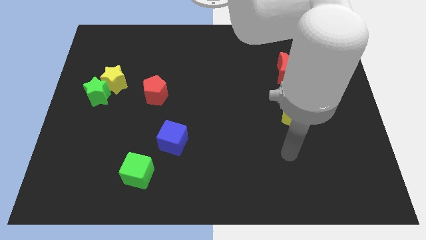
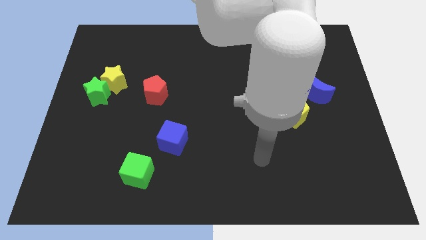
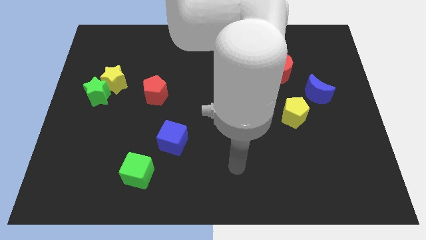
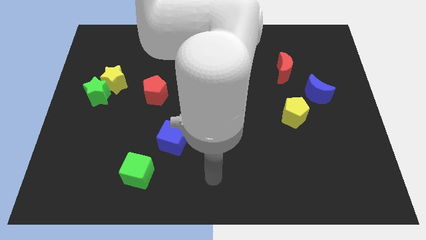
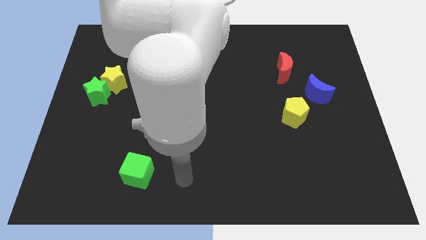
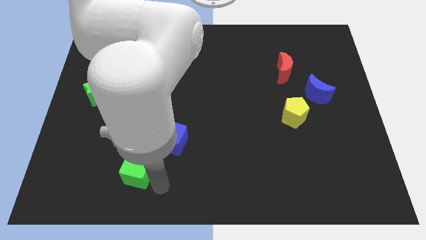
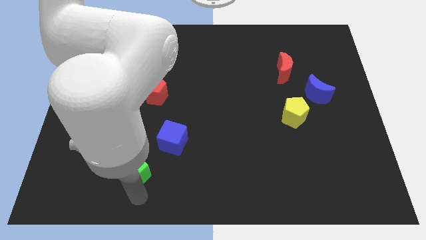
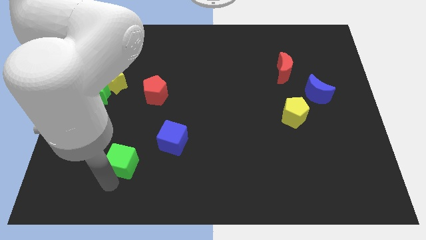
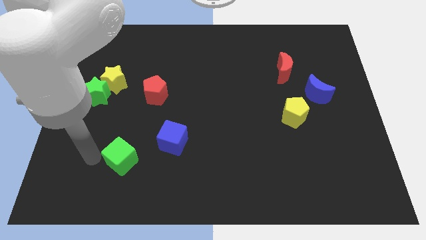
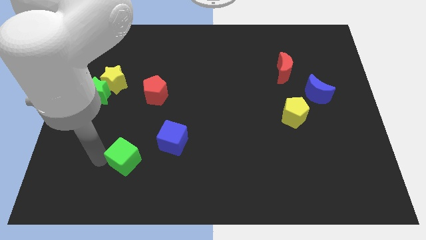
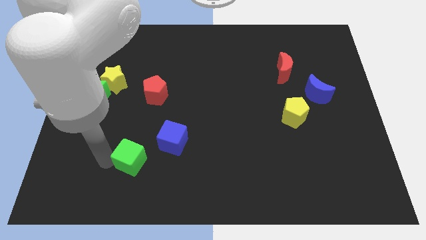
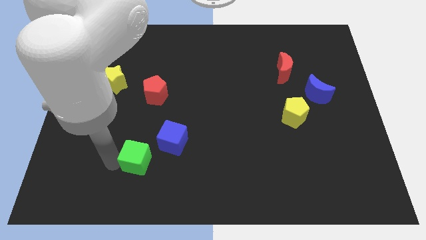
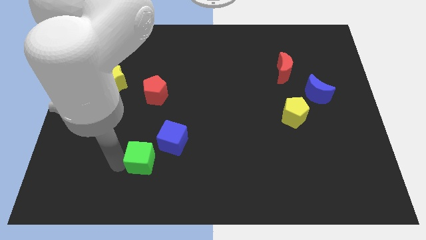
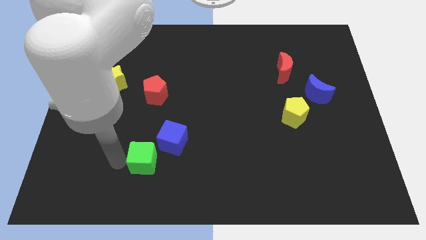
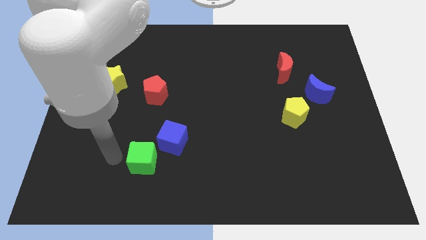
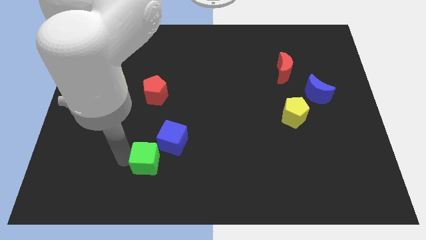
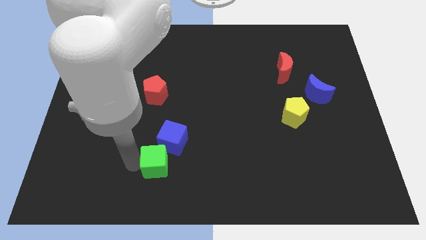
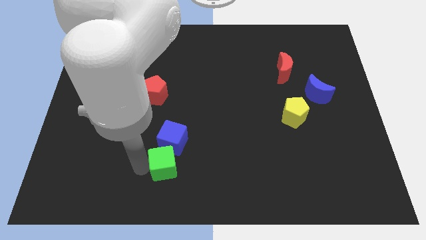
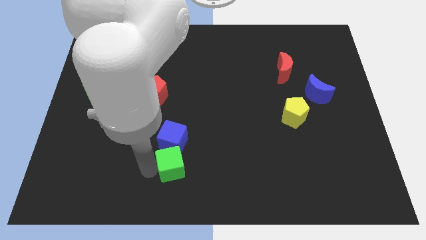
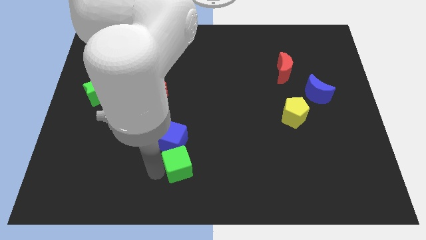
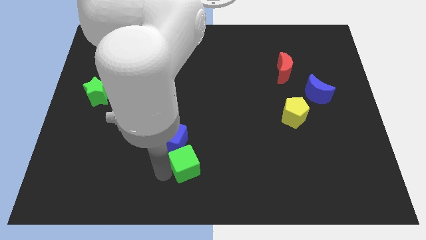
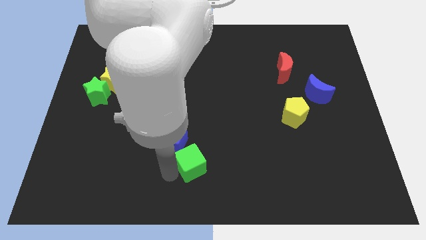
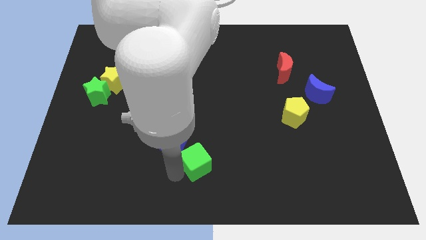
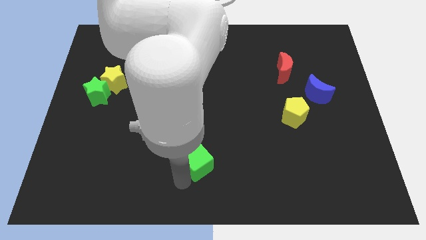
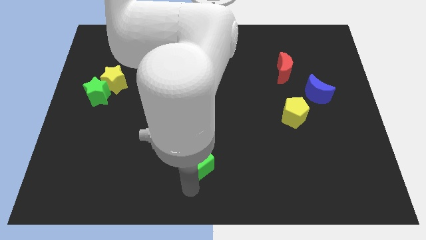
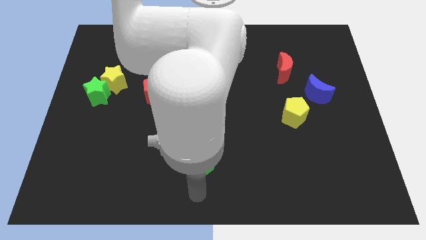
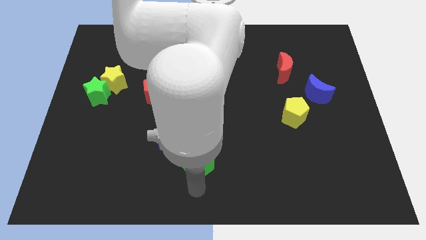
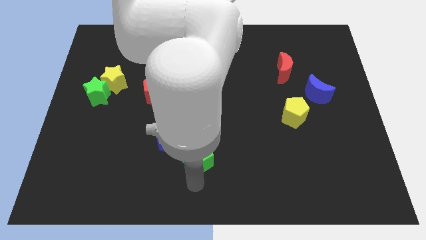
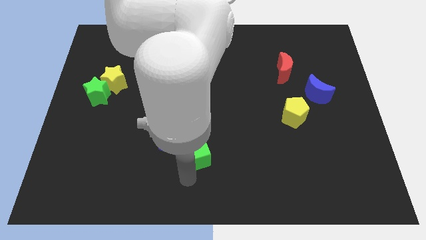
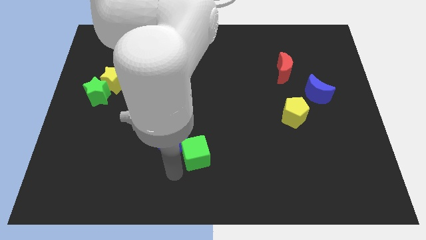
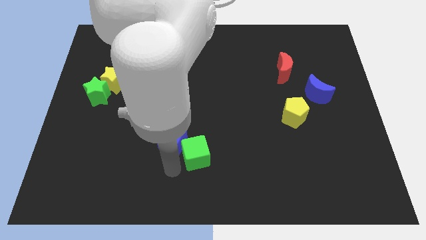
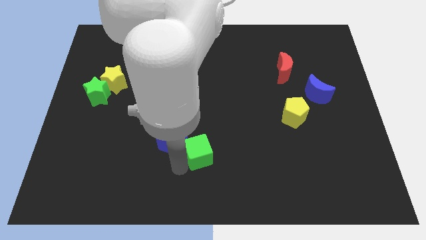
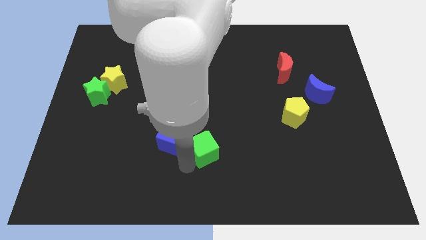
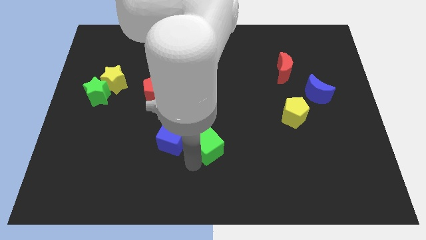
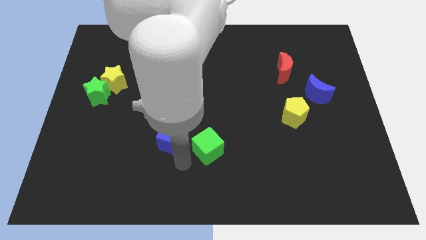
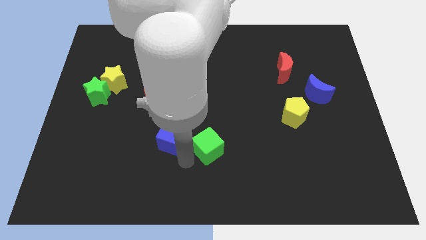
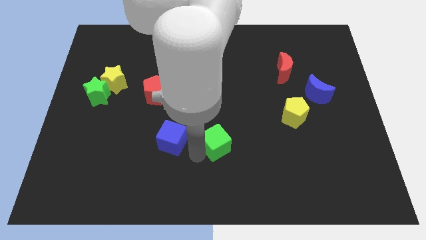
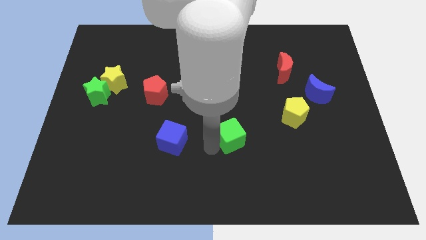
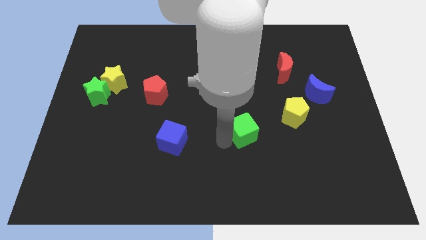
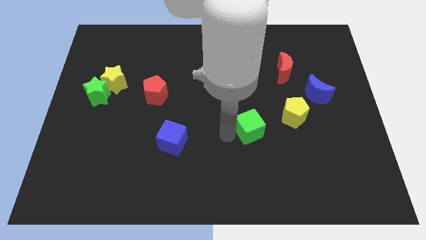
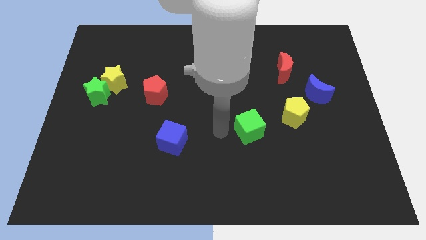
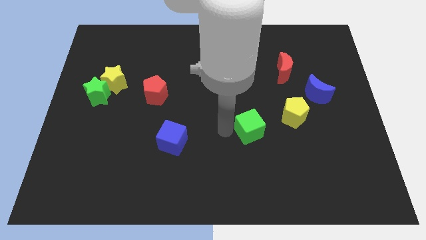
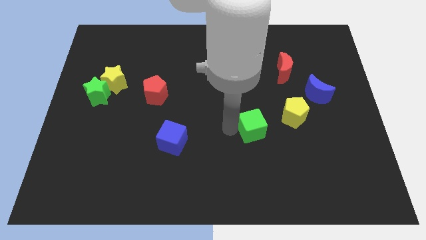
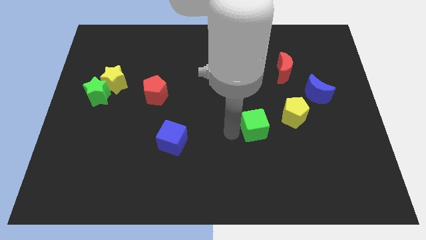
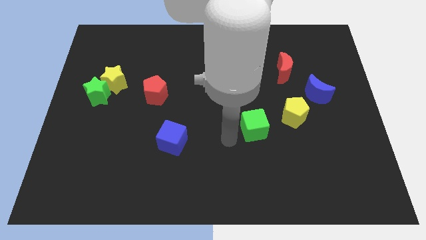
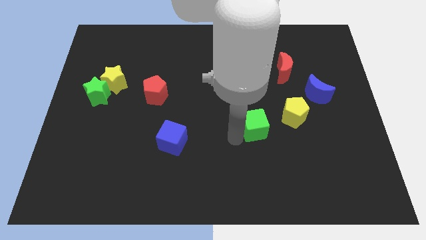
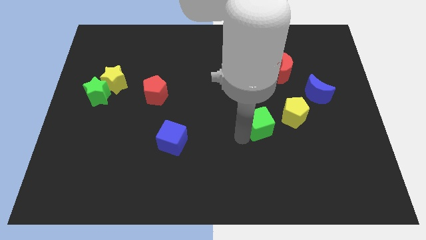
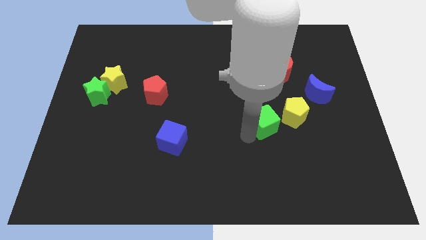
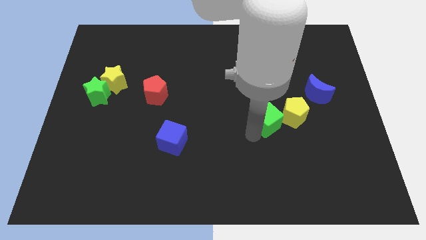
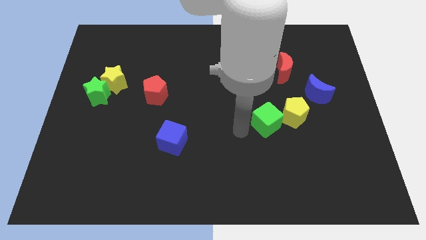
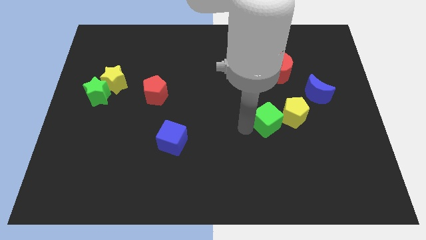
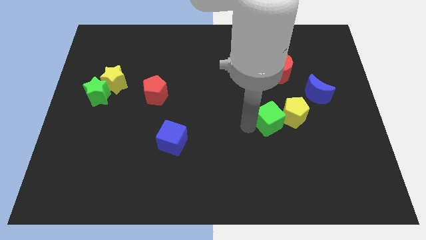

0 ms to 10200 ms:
put the green cube towards the yellow pentagon

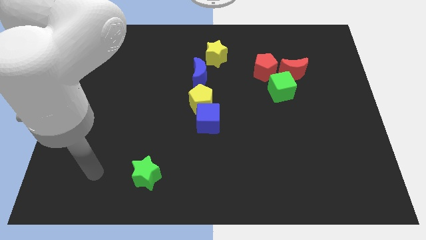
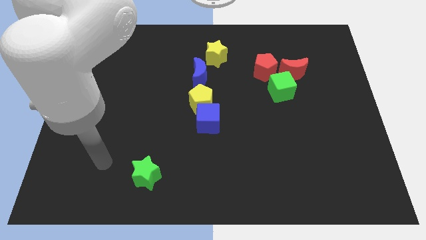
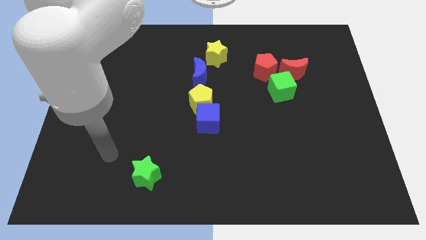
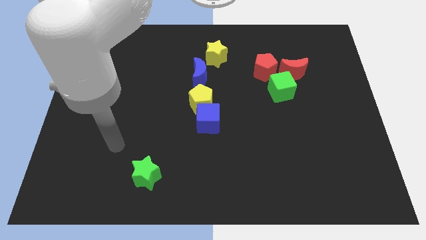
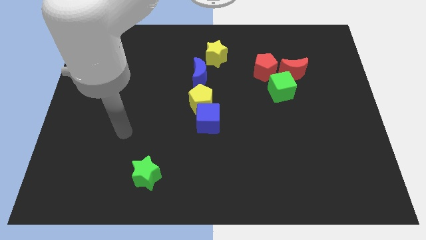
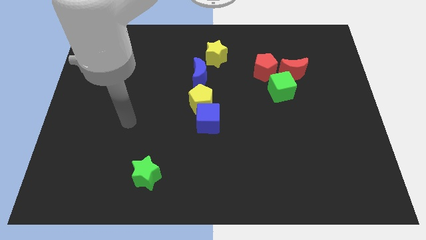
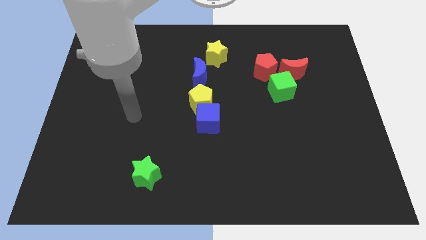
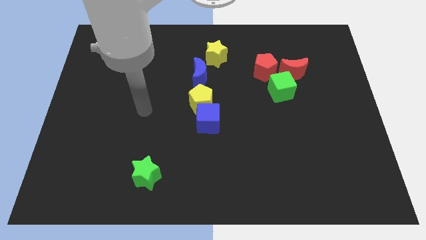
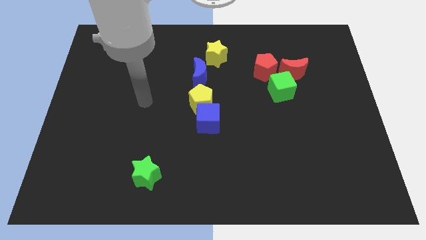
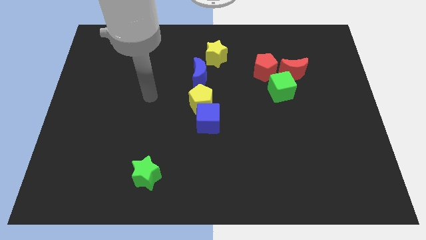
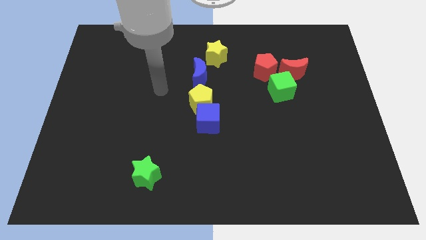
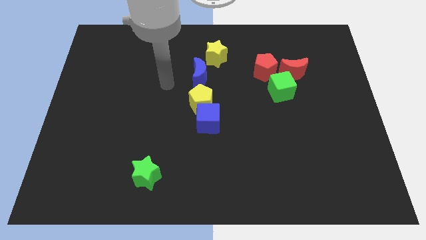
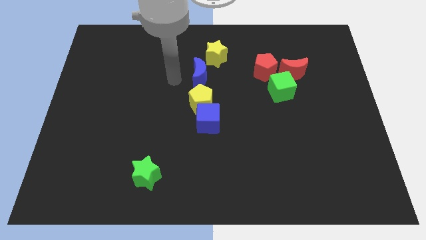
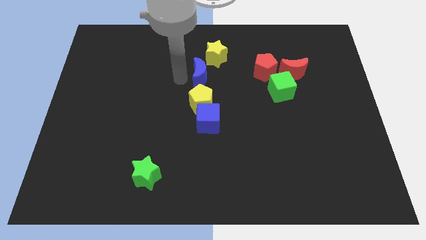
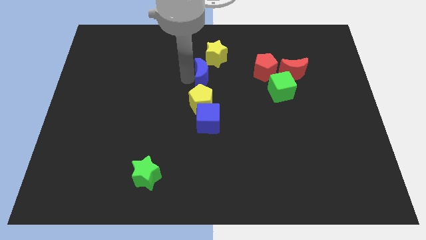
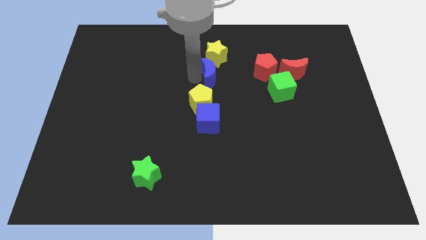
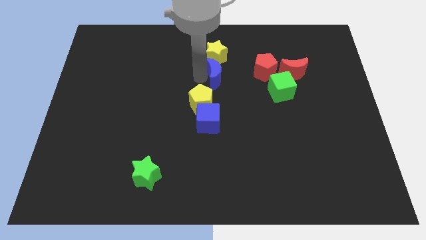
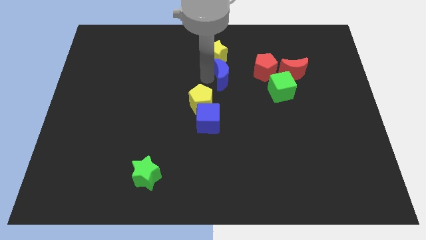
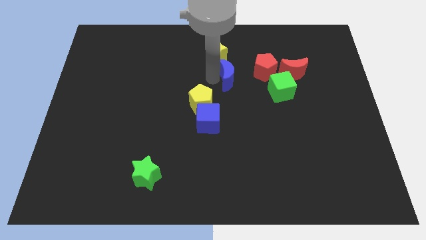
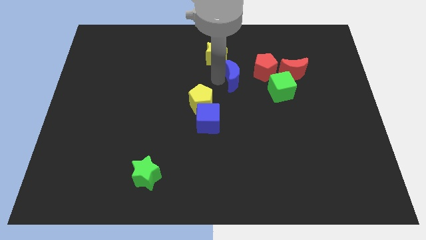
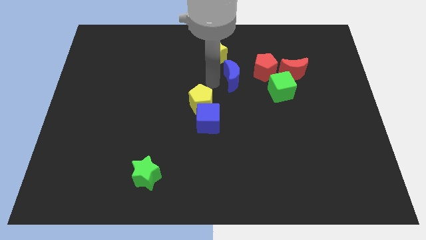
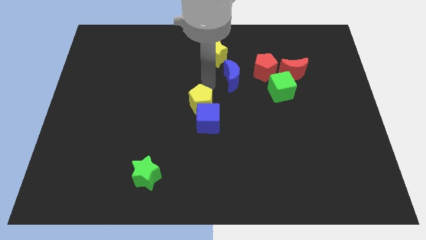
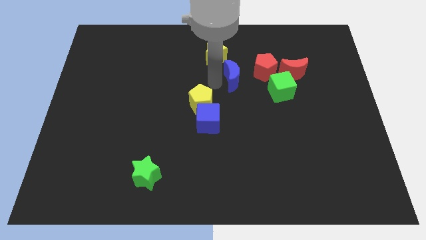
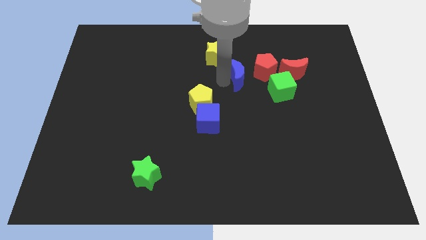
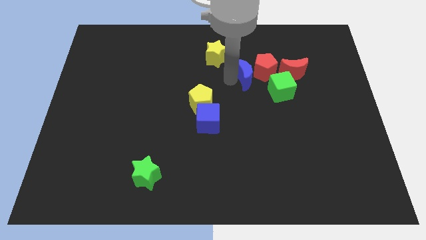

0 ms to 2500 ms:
push the blue moon close to the red pentagon
